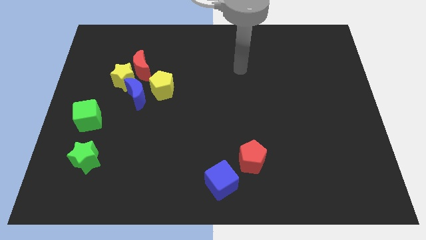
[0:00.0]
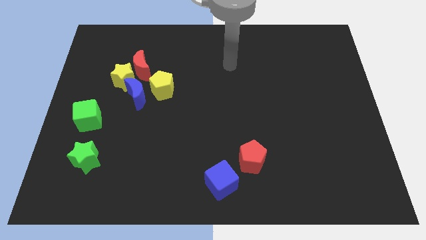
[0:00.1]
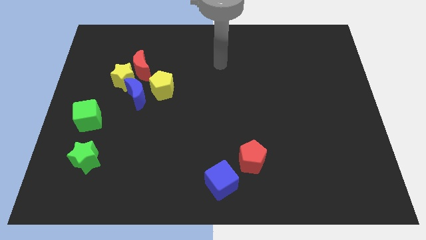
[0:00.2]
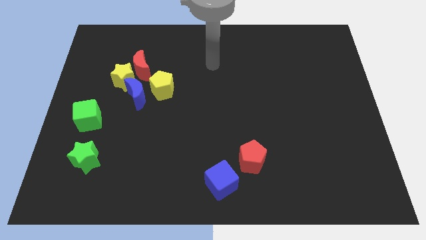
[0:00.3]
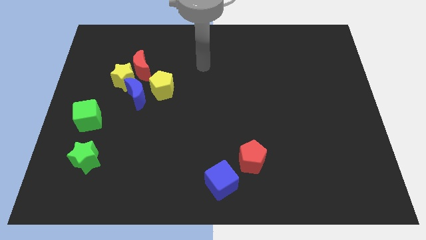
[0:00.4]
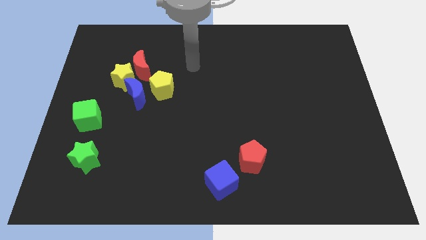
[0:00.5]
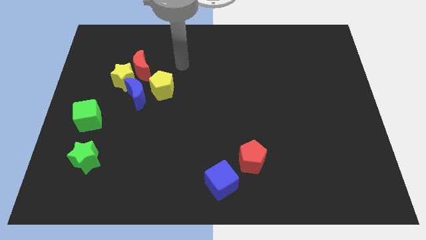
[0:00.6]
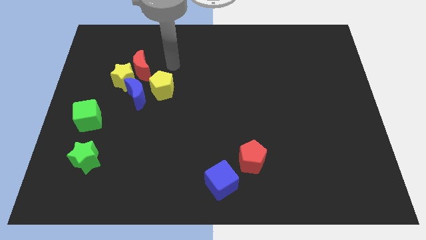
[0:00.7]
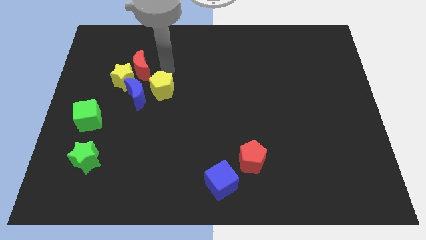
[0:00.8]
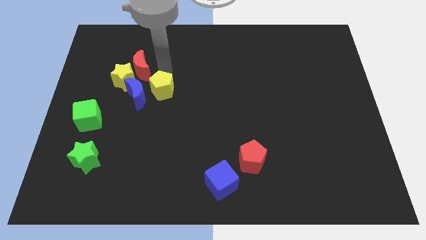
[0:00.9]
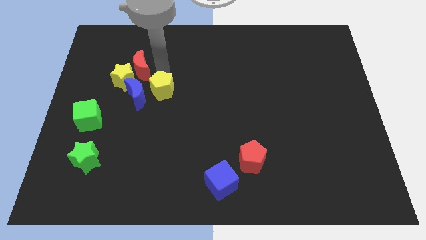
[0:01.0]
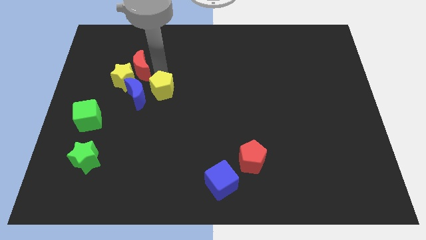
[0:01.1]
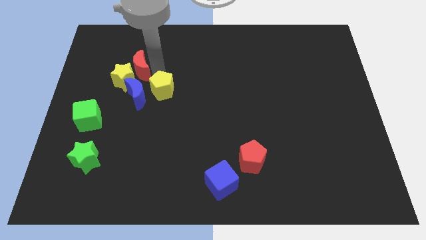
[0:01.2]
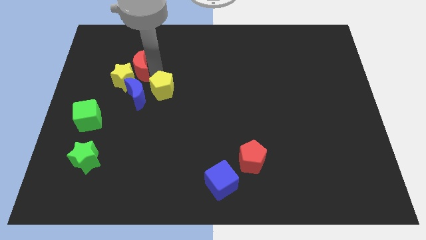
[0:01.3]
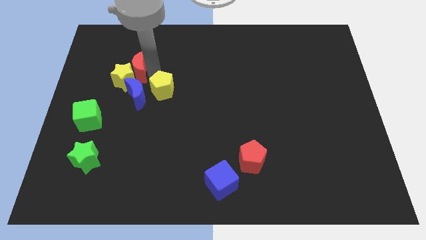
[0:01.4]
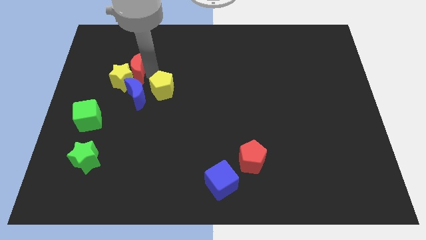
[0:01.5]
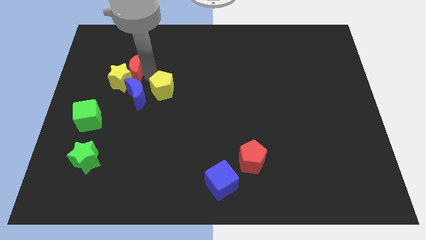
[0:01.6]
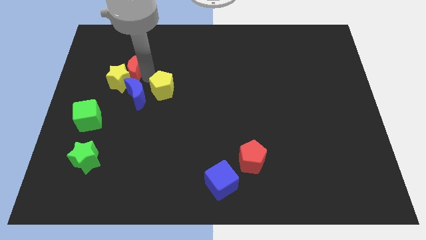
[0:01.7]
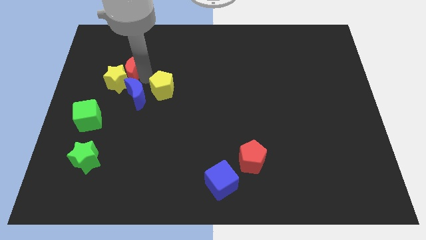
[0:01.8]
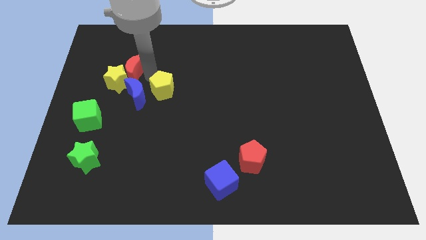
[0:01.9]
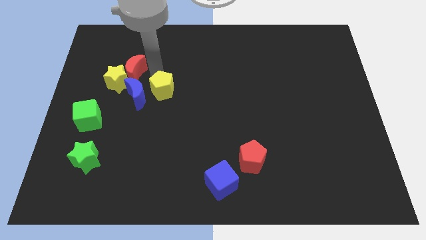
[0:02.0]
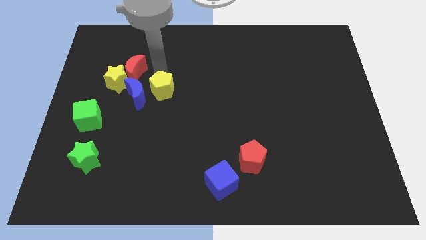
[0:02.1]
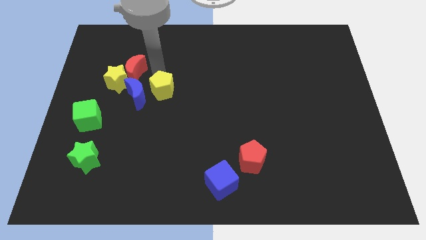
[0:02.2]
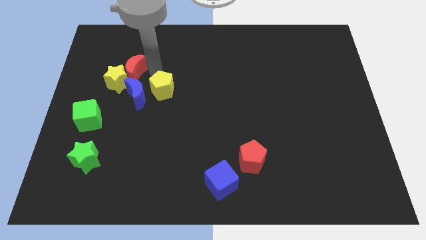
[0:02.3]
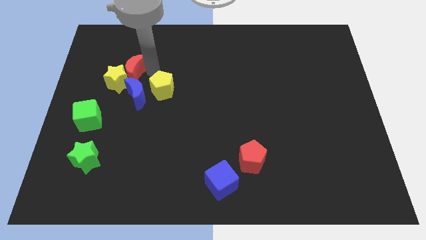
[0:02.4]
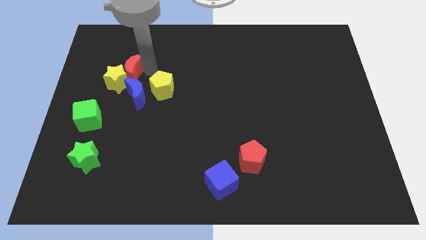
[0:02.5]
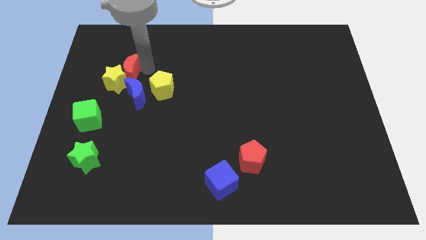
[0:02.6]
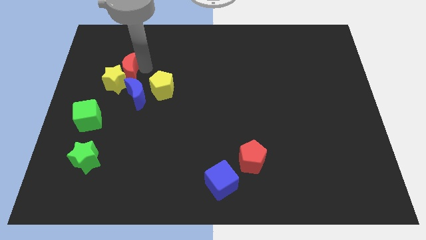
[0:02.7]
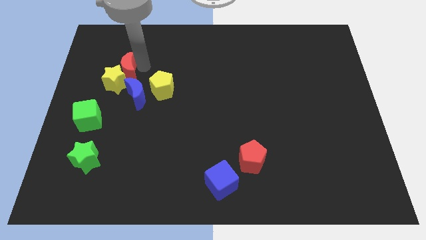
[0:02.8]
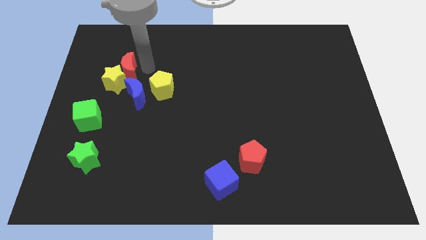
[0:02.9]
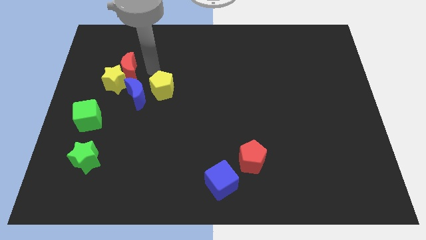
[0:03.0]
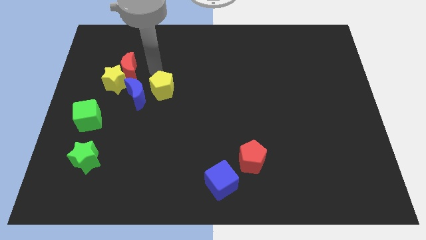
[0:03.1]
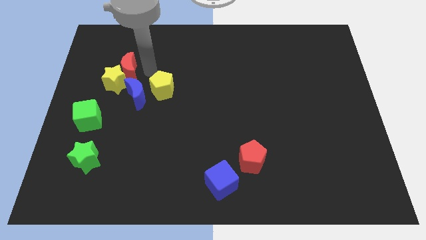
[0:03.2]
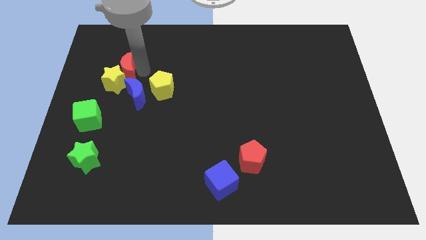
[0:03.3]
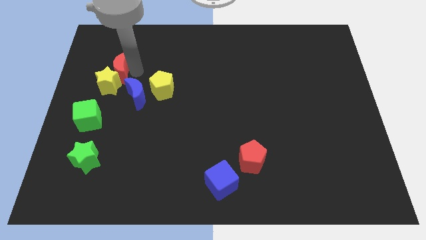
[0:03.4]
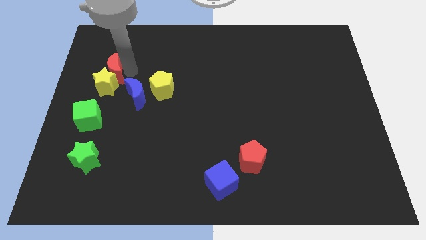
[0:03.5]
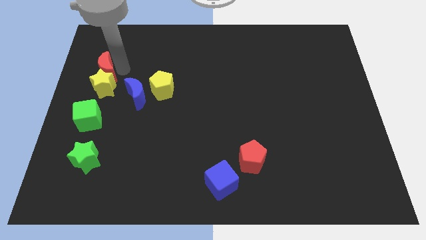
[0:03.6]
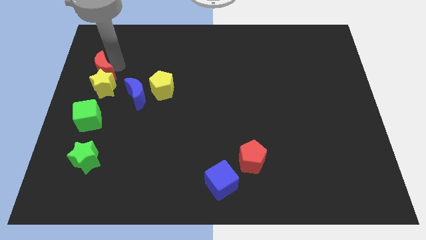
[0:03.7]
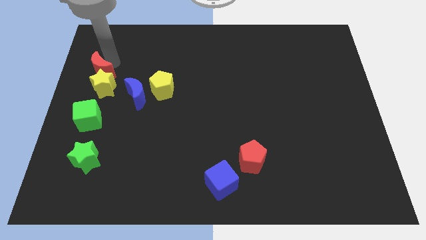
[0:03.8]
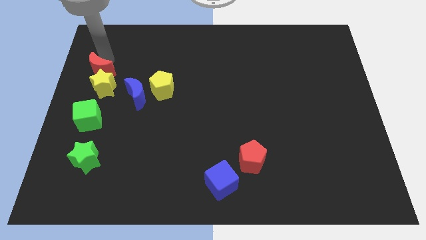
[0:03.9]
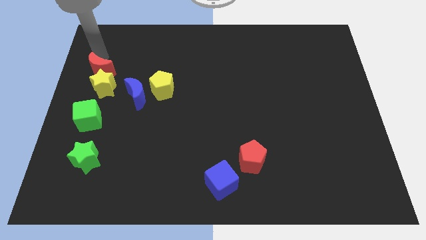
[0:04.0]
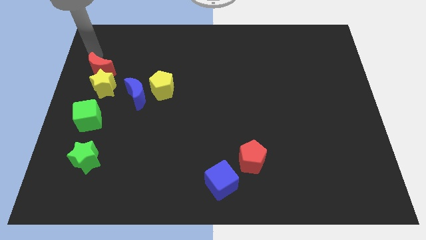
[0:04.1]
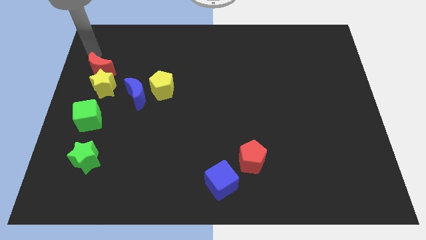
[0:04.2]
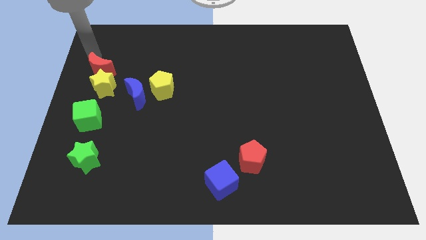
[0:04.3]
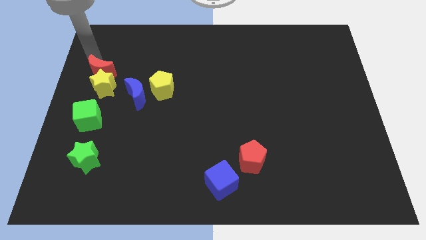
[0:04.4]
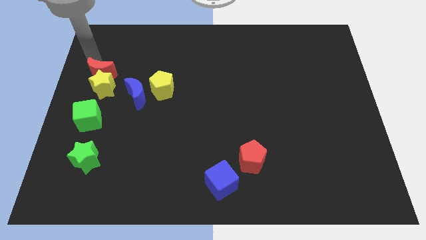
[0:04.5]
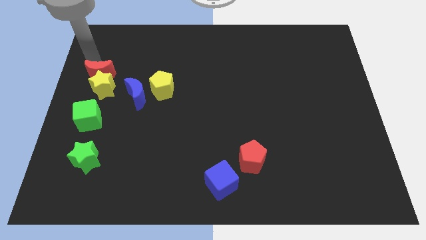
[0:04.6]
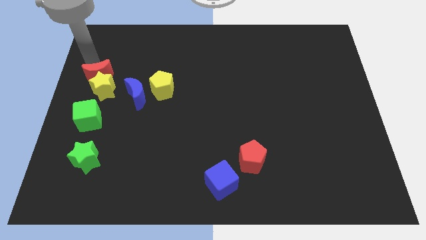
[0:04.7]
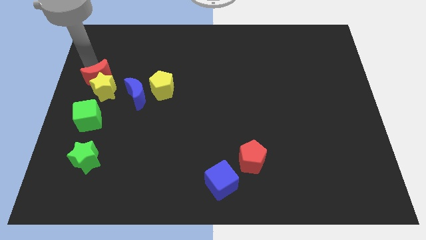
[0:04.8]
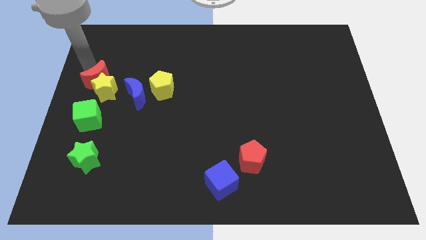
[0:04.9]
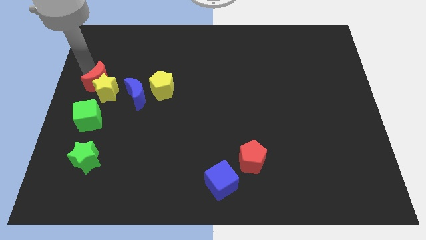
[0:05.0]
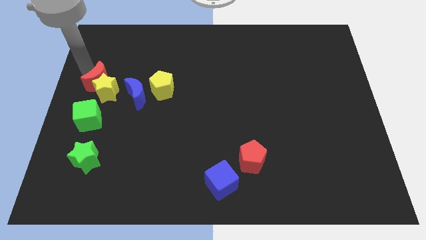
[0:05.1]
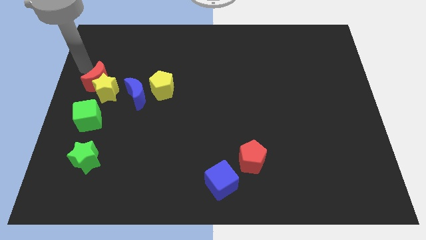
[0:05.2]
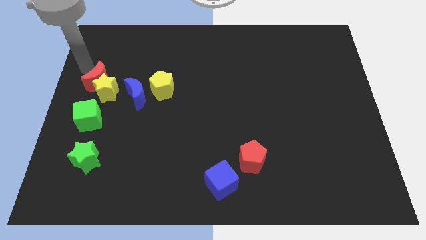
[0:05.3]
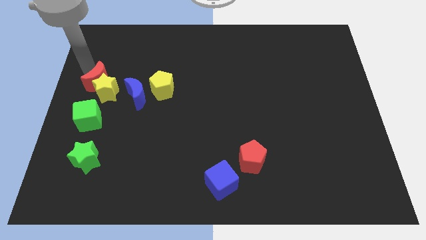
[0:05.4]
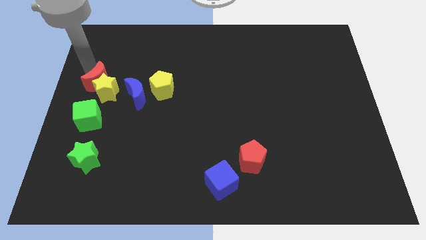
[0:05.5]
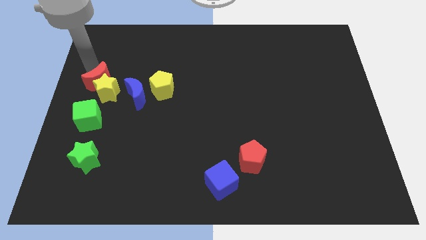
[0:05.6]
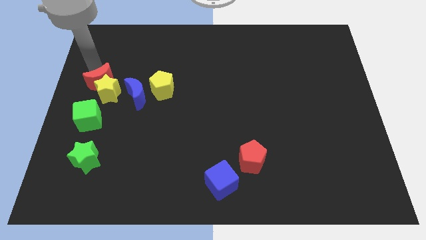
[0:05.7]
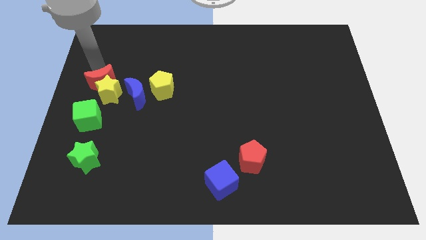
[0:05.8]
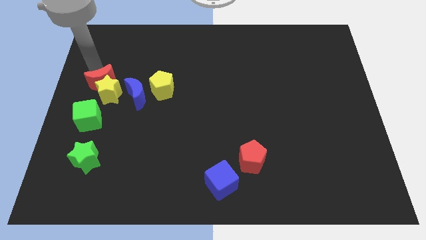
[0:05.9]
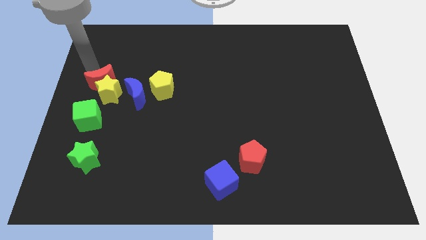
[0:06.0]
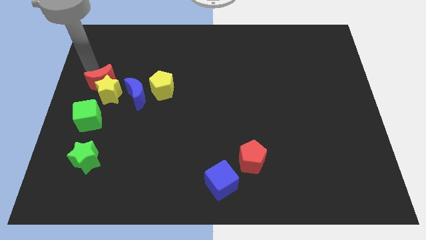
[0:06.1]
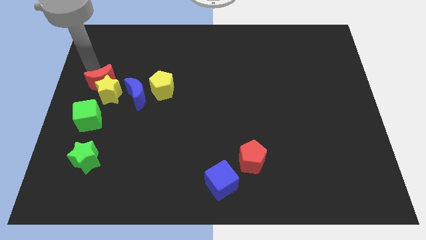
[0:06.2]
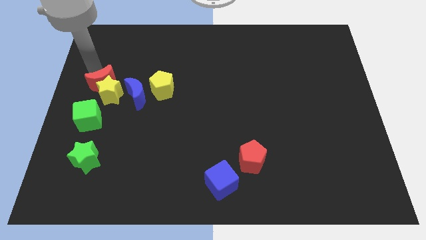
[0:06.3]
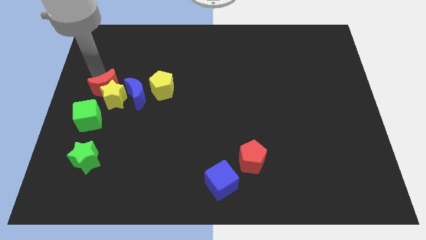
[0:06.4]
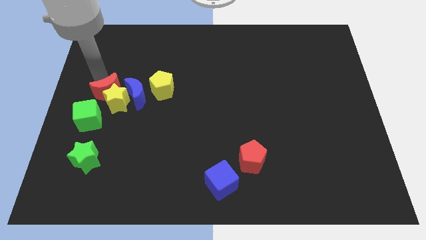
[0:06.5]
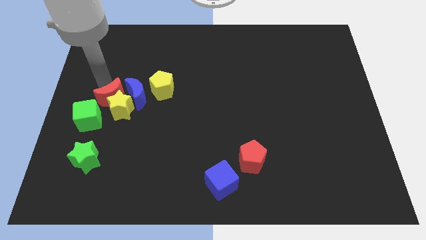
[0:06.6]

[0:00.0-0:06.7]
slightly move the red moon downwards

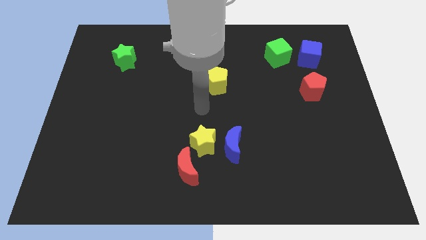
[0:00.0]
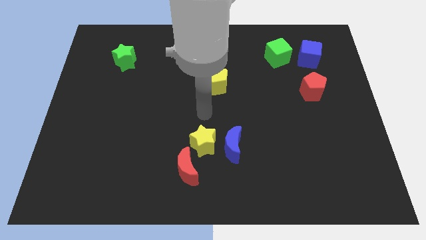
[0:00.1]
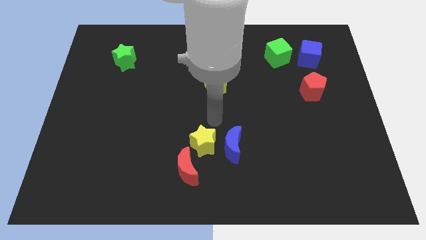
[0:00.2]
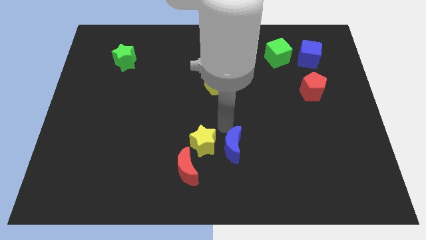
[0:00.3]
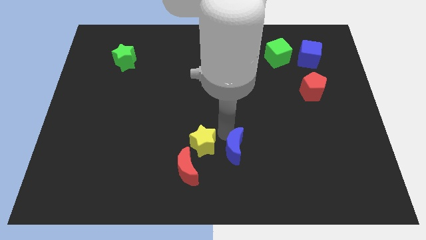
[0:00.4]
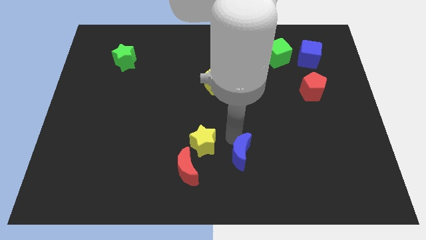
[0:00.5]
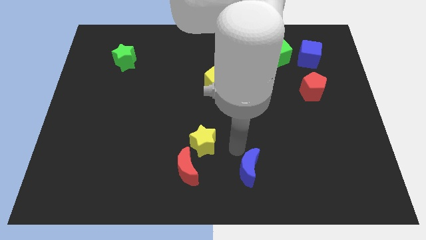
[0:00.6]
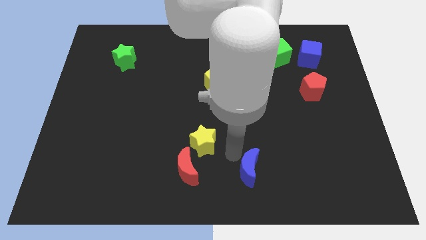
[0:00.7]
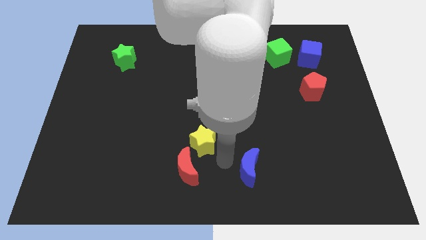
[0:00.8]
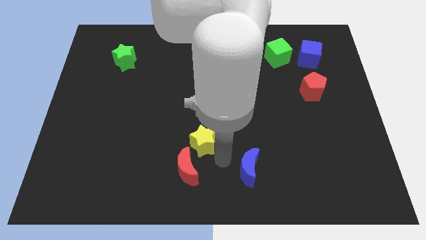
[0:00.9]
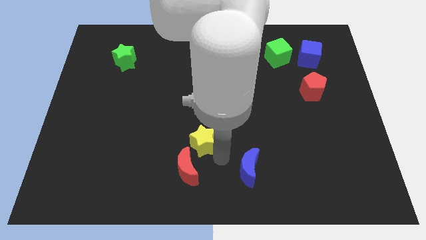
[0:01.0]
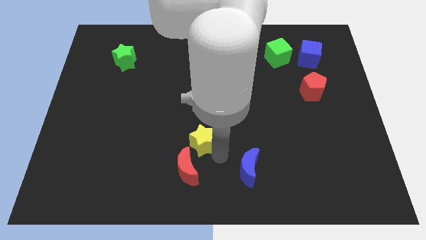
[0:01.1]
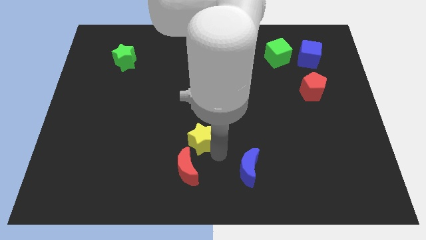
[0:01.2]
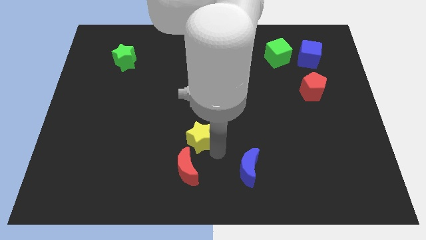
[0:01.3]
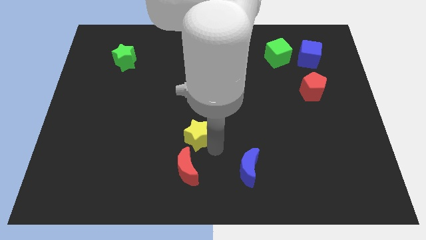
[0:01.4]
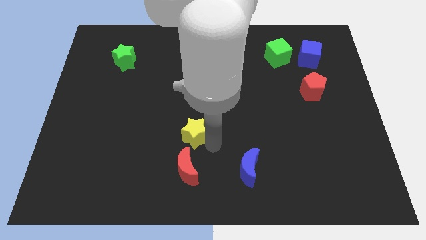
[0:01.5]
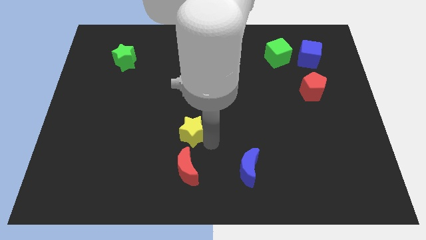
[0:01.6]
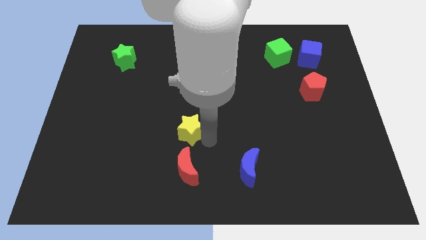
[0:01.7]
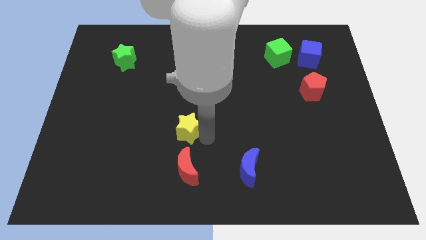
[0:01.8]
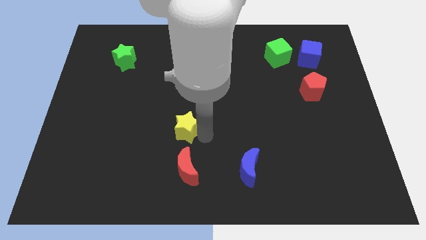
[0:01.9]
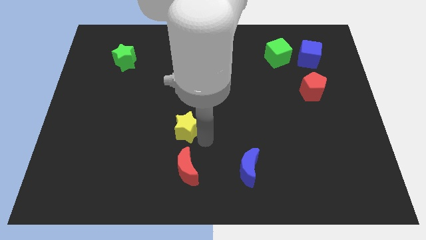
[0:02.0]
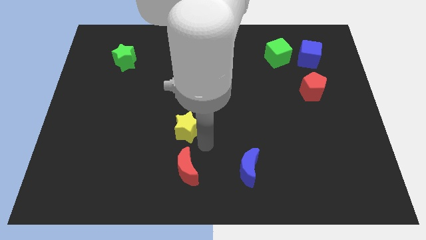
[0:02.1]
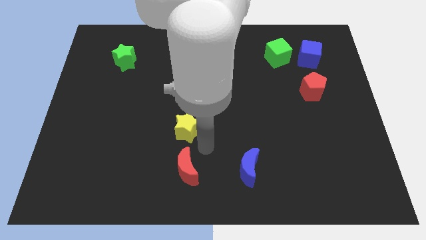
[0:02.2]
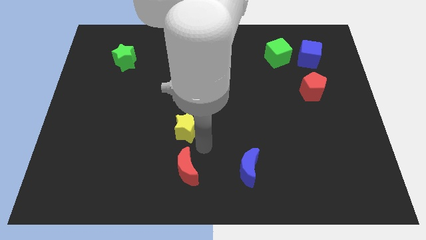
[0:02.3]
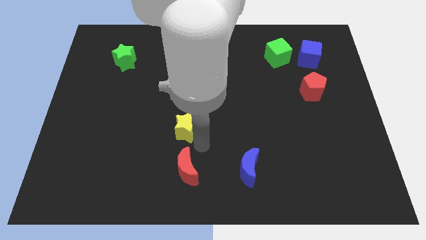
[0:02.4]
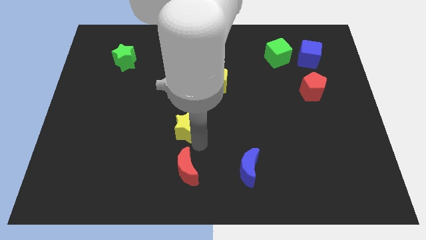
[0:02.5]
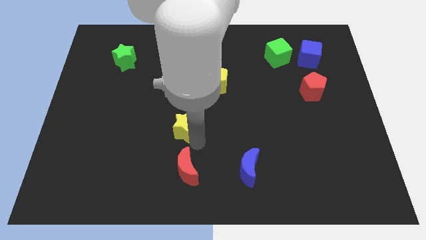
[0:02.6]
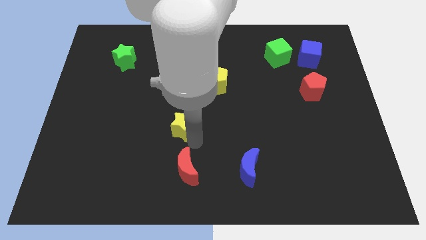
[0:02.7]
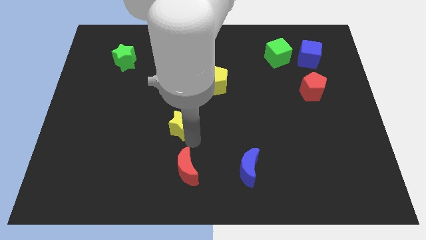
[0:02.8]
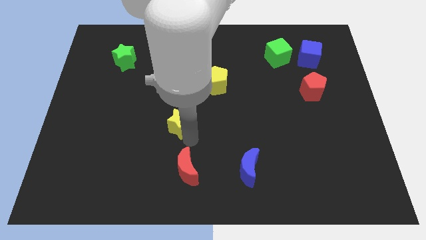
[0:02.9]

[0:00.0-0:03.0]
slide the yellow star a bit upwards and left
